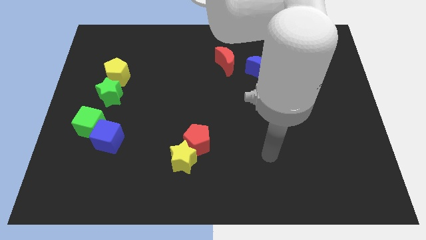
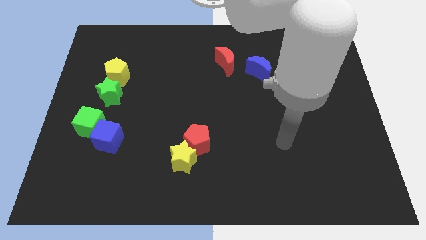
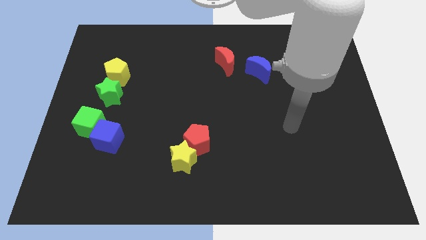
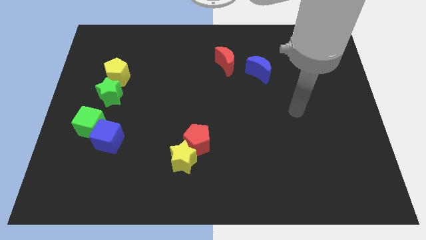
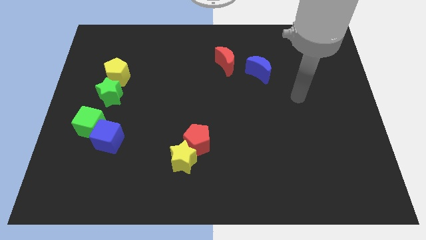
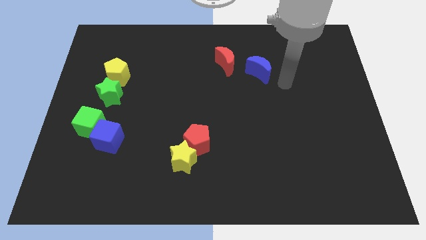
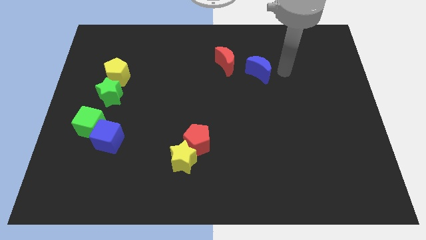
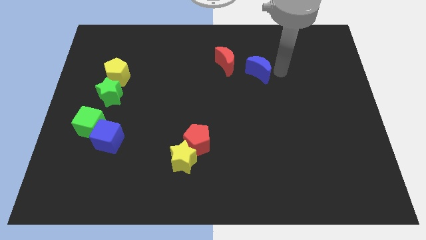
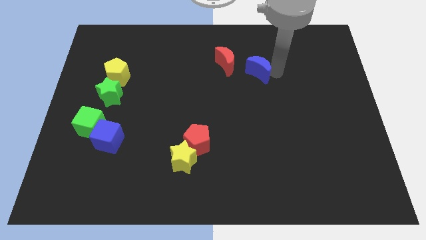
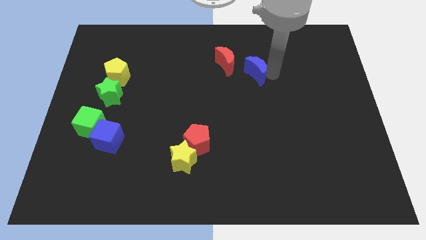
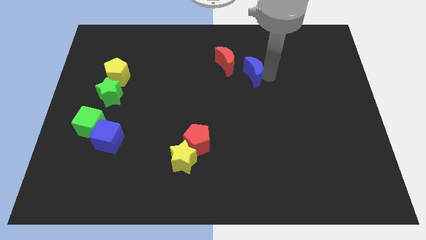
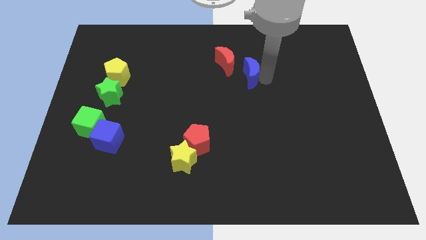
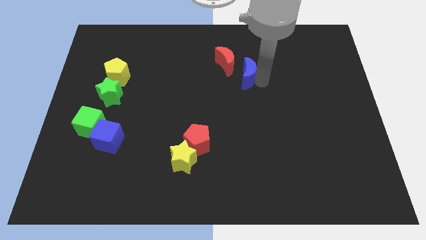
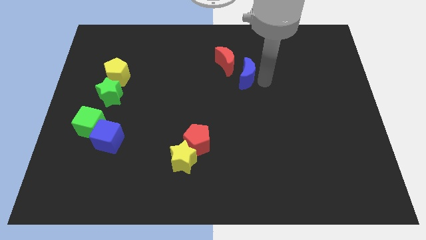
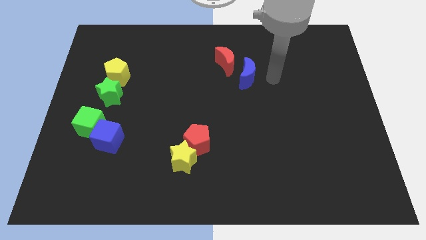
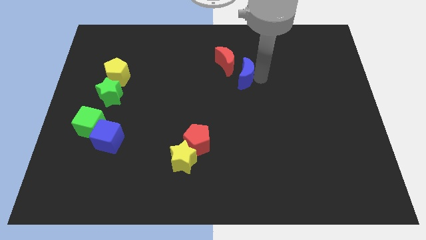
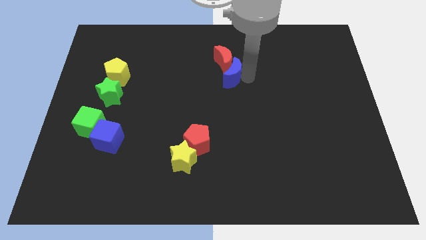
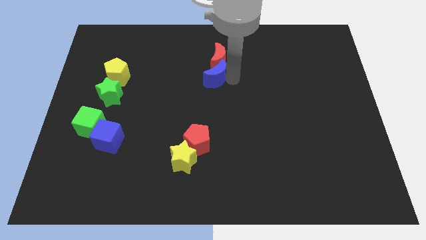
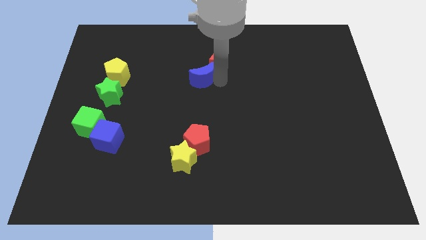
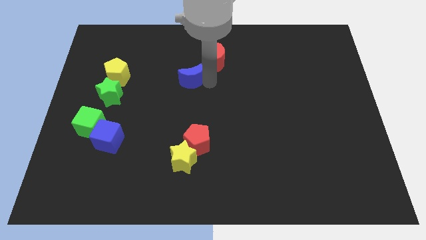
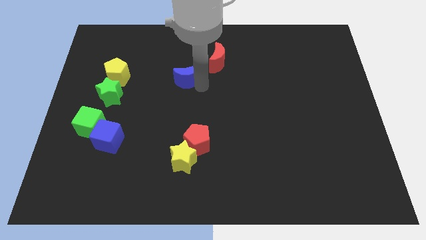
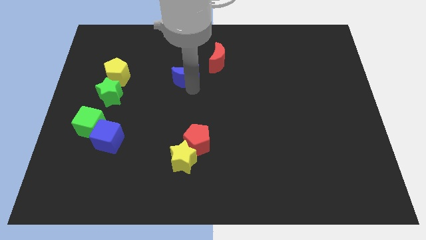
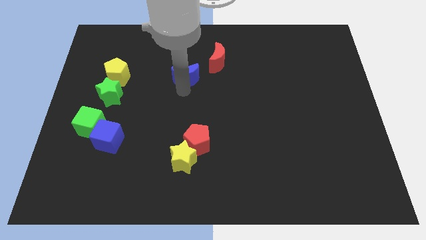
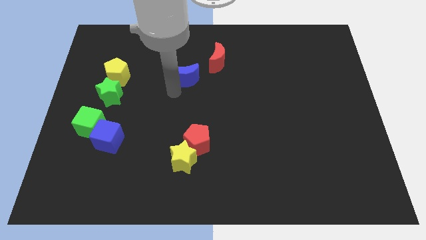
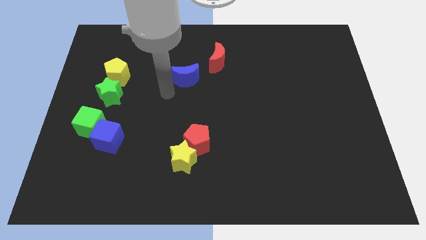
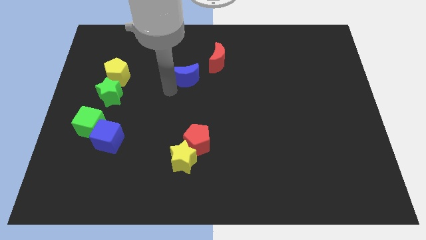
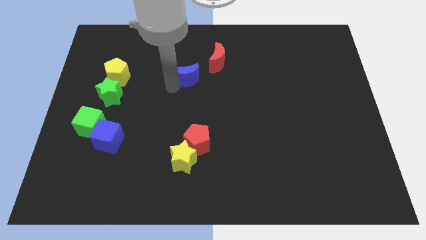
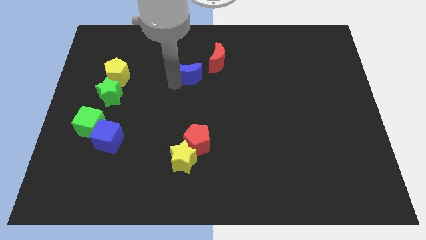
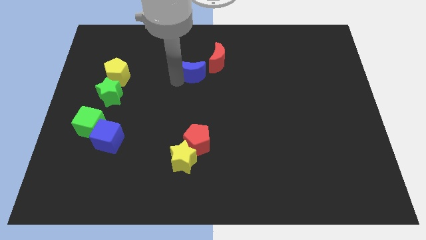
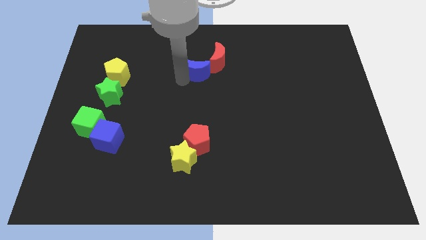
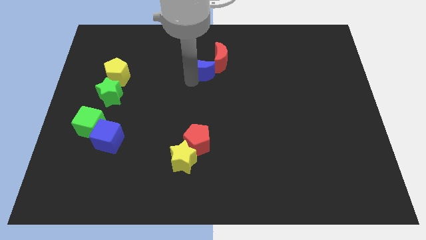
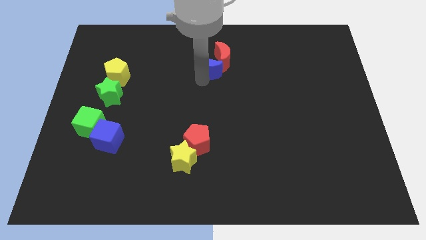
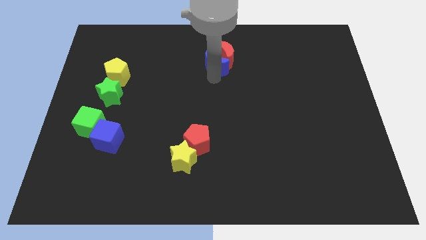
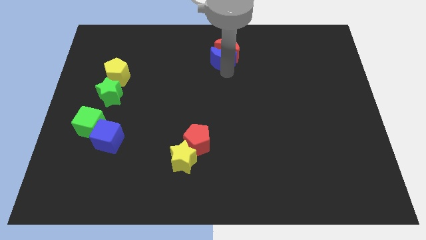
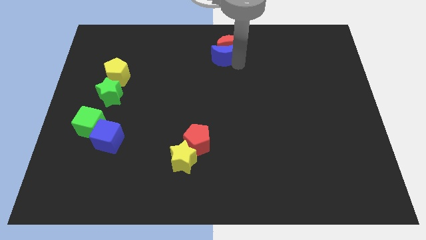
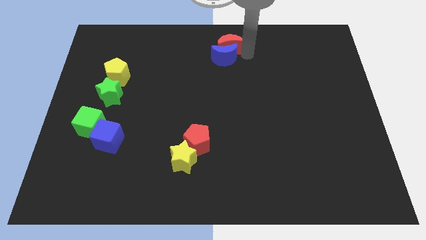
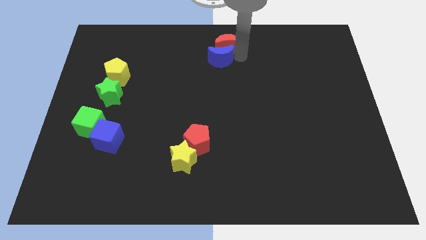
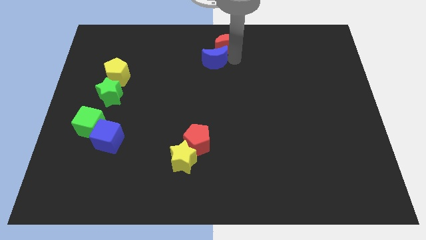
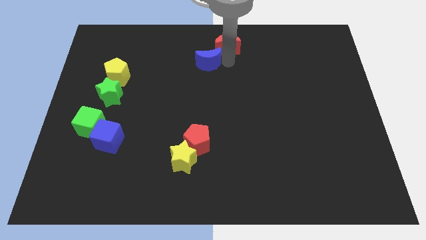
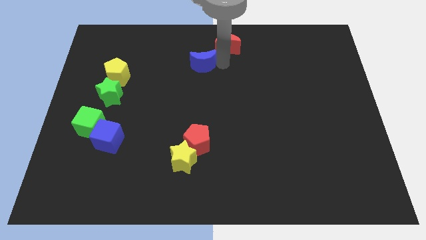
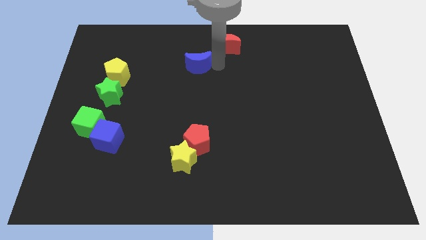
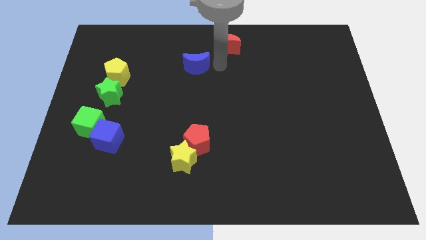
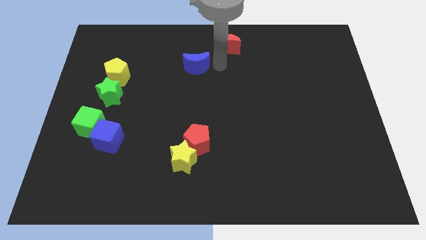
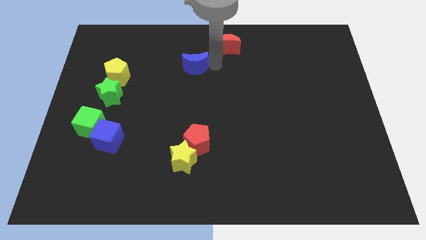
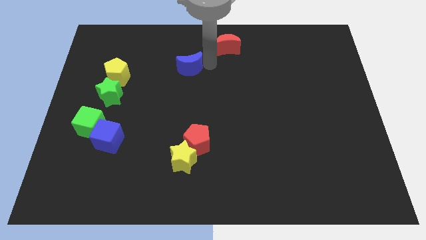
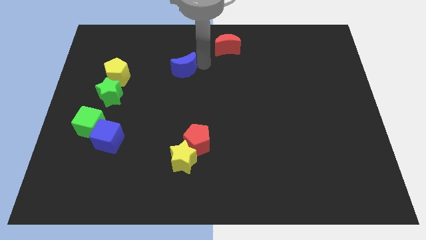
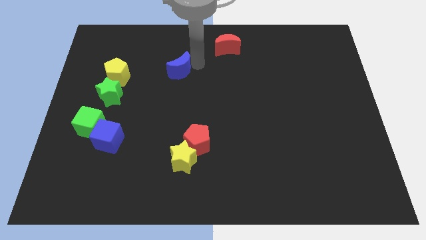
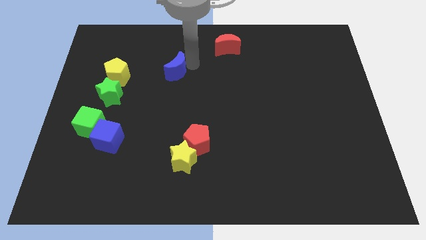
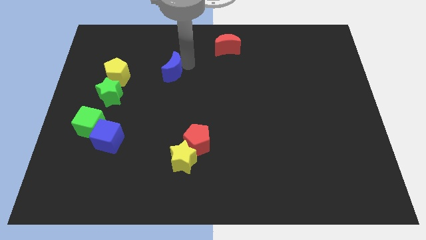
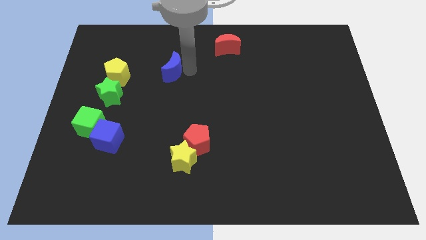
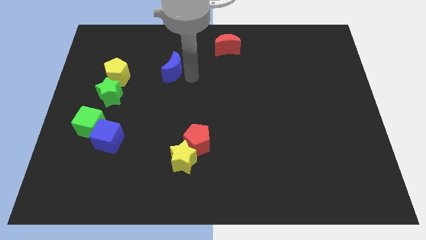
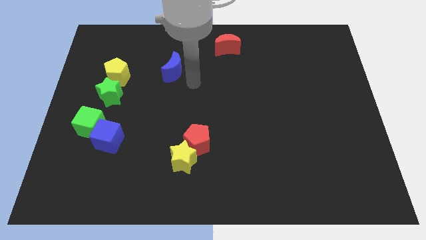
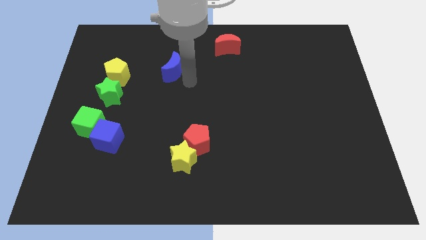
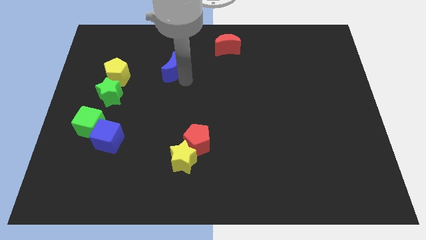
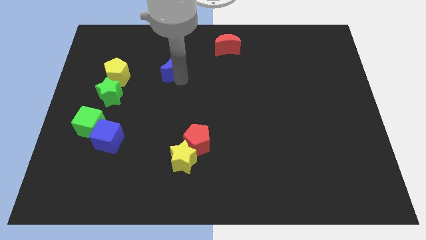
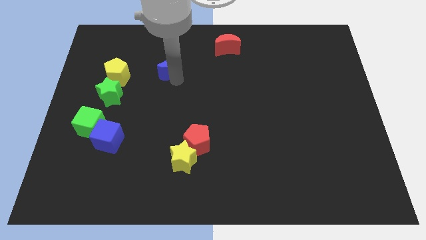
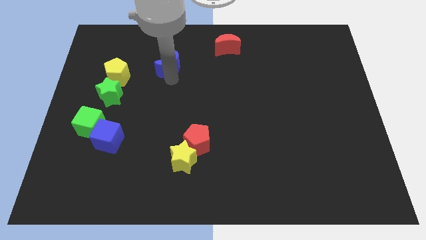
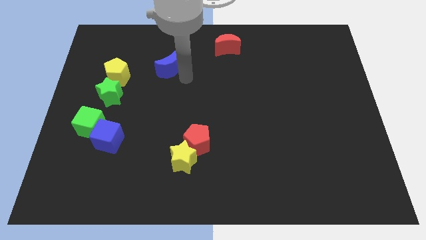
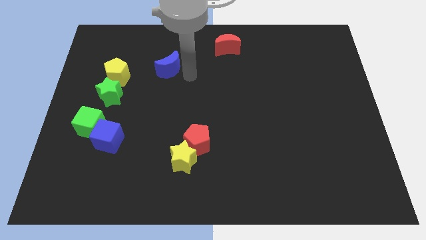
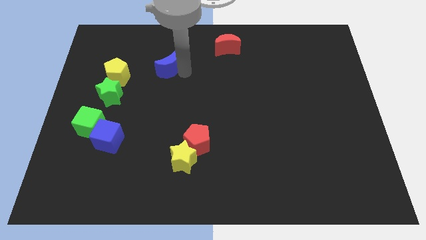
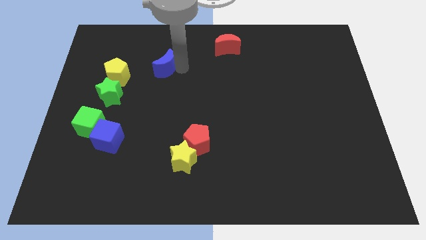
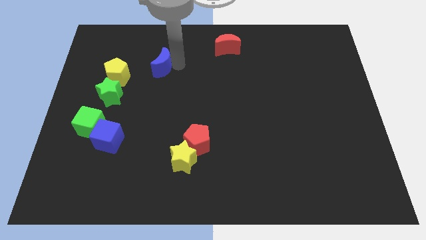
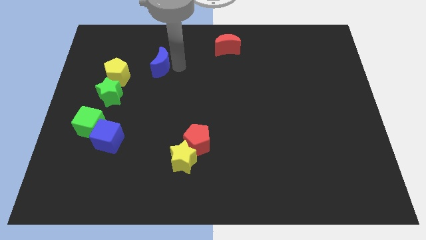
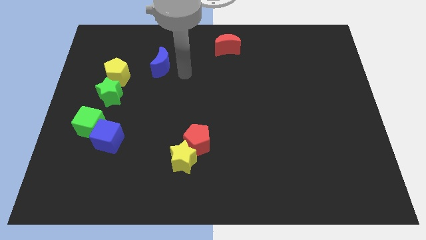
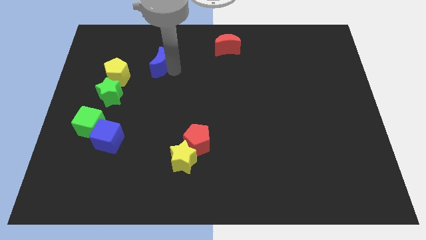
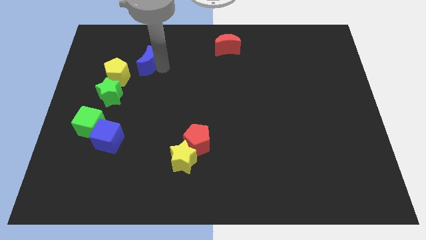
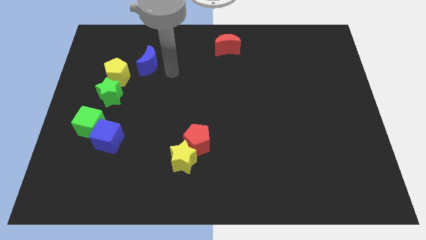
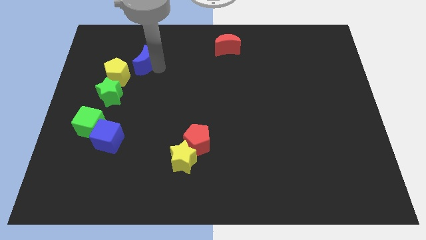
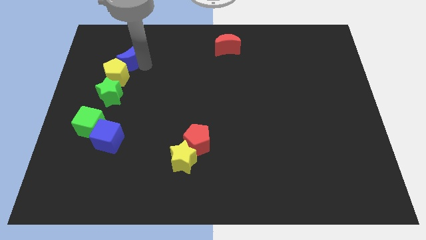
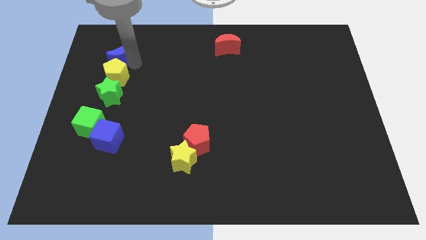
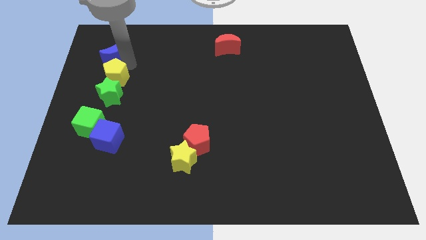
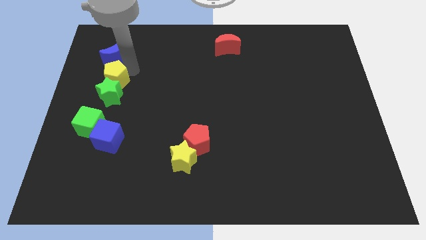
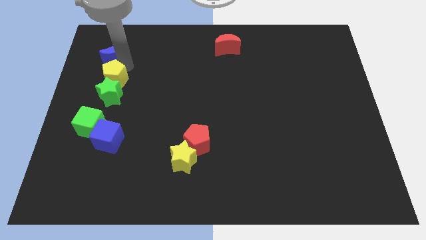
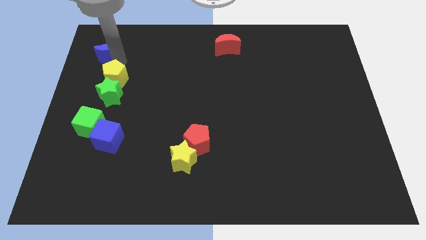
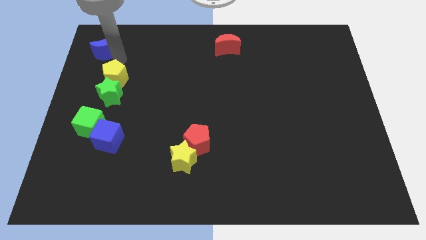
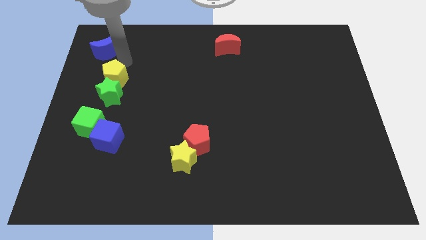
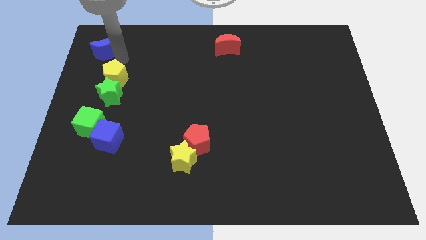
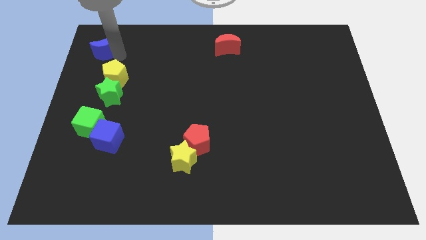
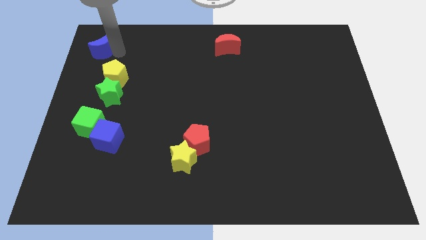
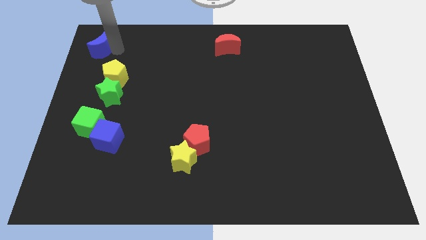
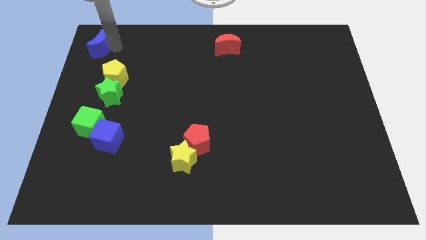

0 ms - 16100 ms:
push the blue moon to the top left corner
